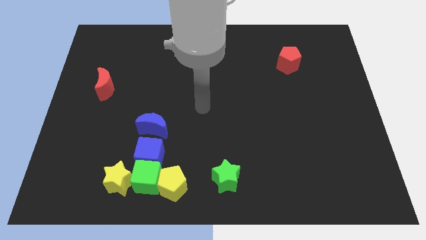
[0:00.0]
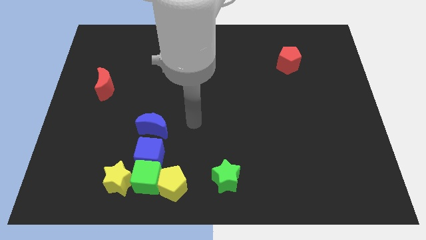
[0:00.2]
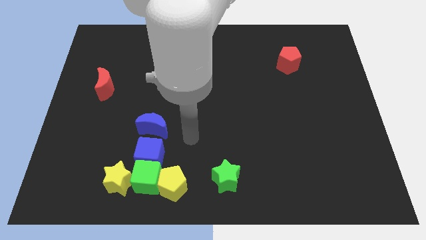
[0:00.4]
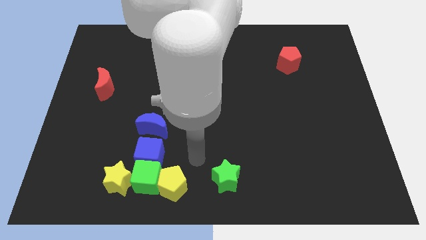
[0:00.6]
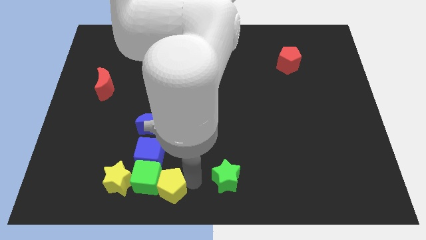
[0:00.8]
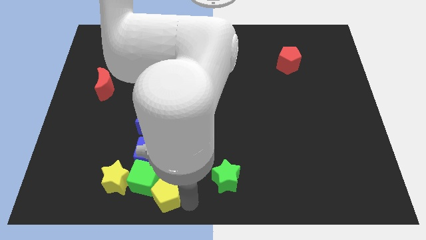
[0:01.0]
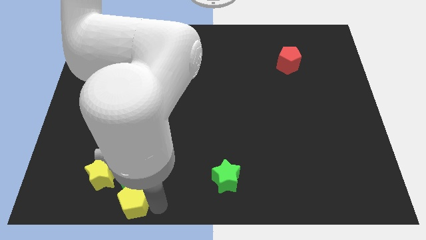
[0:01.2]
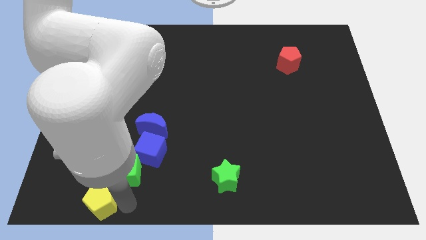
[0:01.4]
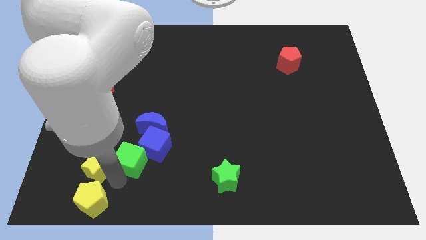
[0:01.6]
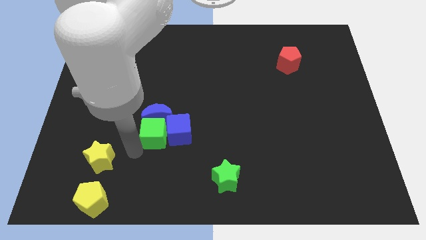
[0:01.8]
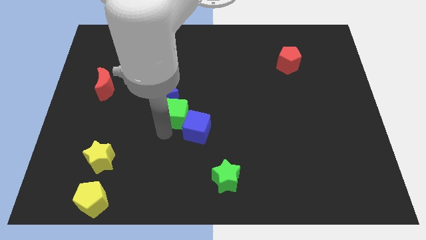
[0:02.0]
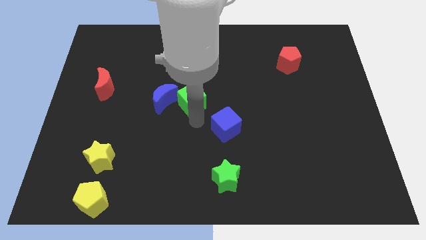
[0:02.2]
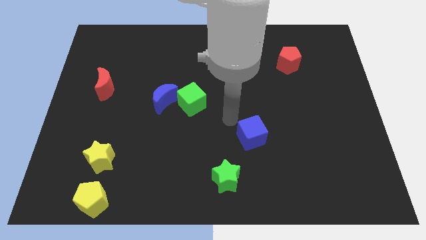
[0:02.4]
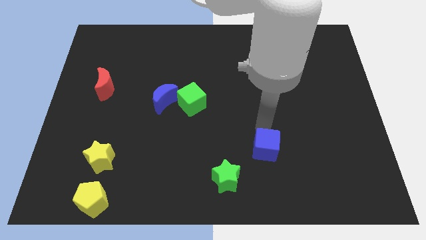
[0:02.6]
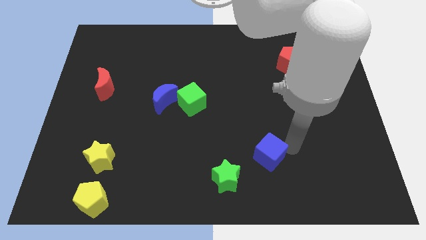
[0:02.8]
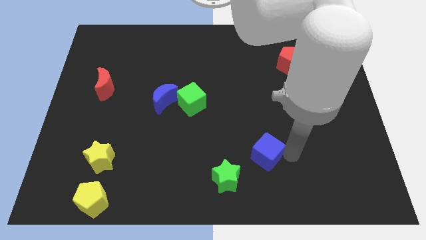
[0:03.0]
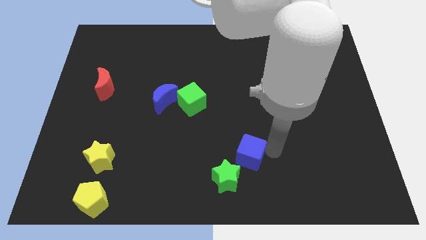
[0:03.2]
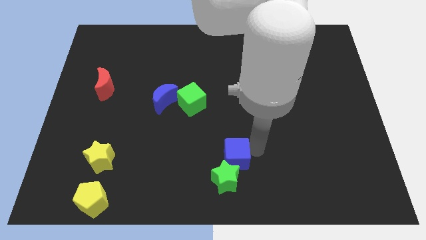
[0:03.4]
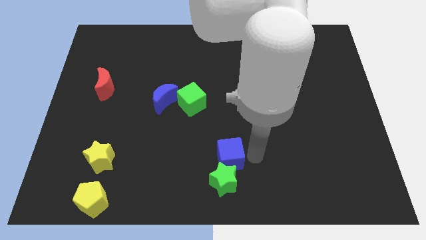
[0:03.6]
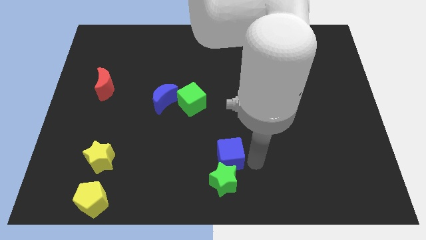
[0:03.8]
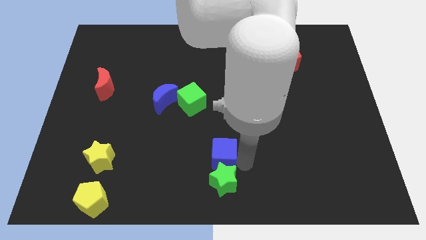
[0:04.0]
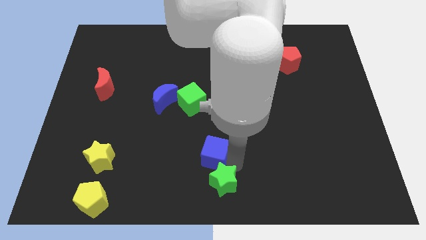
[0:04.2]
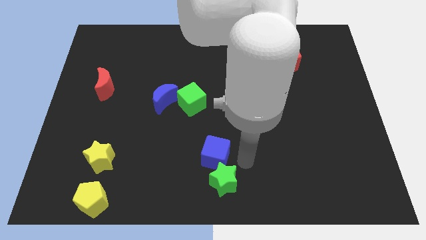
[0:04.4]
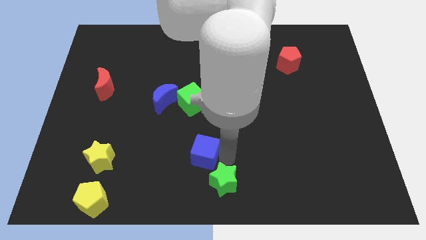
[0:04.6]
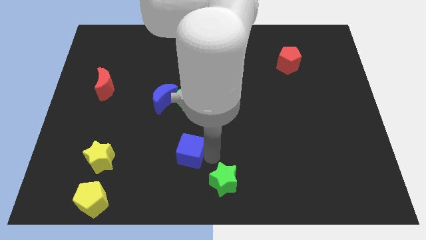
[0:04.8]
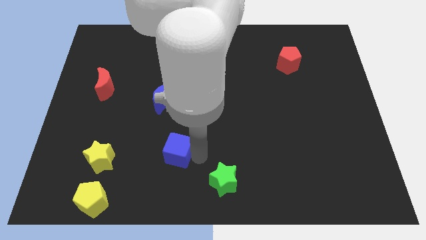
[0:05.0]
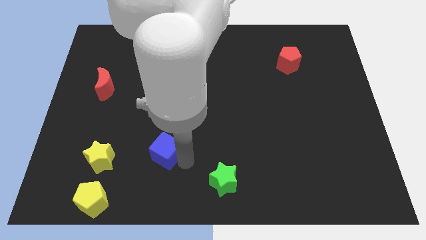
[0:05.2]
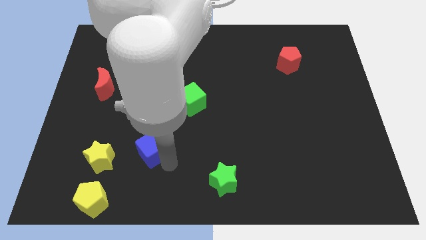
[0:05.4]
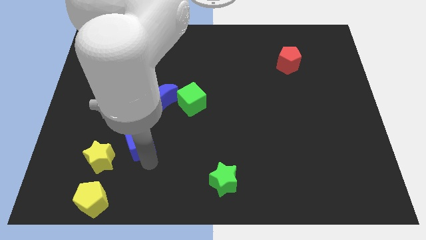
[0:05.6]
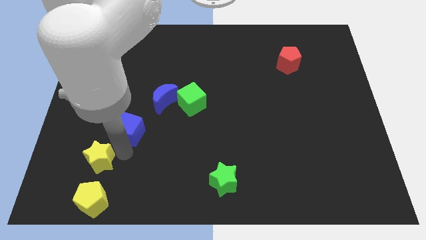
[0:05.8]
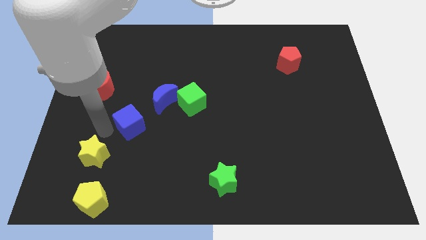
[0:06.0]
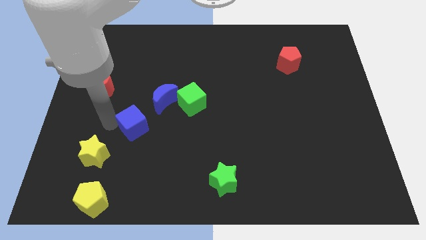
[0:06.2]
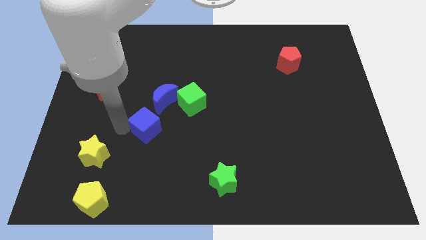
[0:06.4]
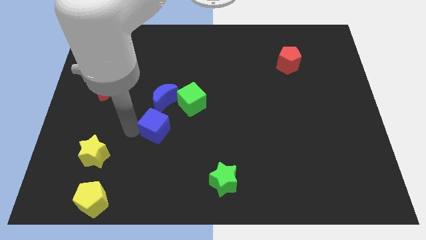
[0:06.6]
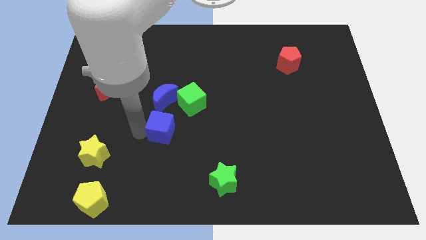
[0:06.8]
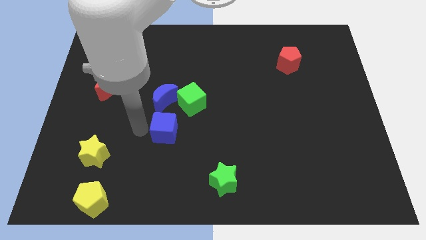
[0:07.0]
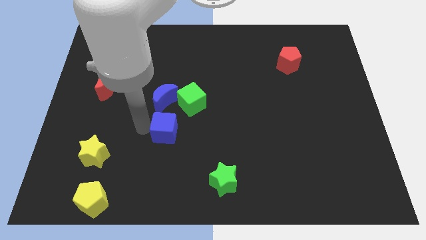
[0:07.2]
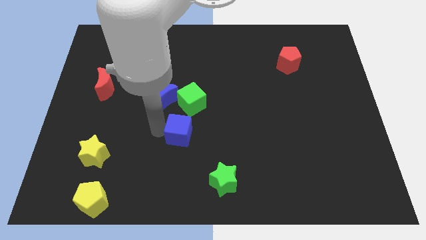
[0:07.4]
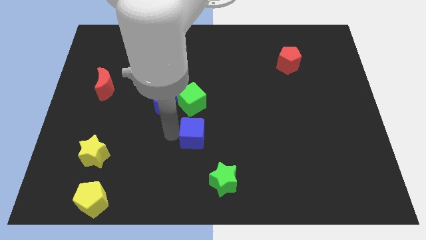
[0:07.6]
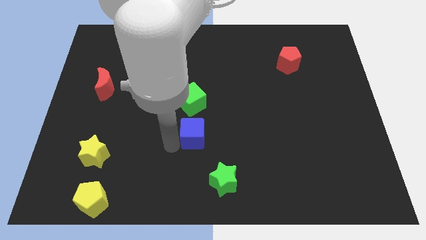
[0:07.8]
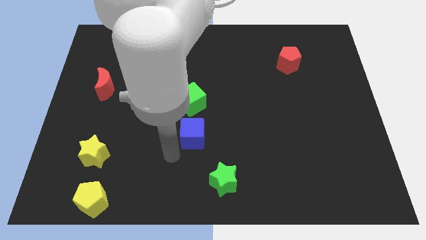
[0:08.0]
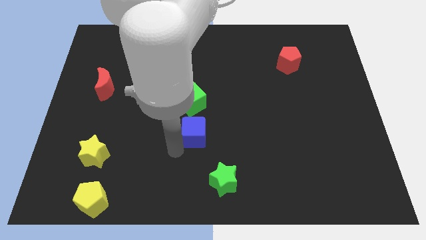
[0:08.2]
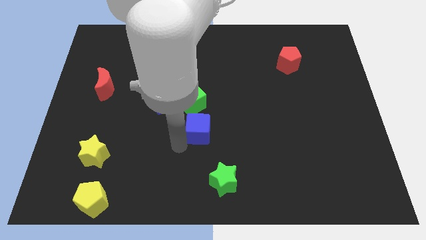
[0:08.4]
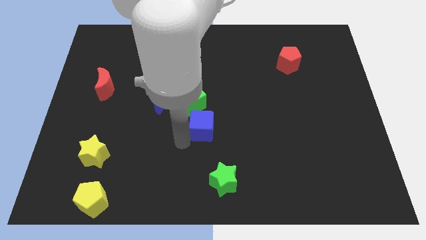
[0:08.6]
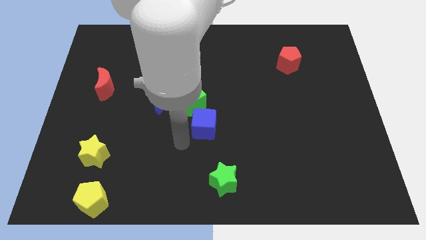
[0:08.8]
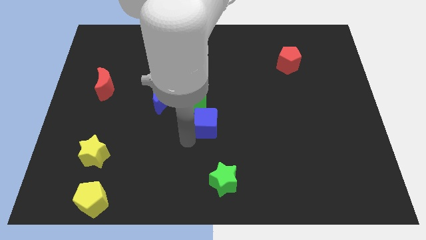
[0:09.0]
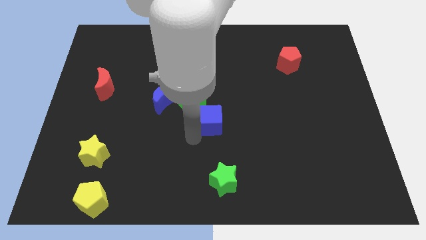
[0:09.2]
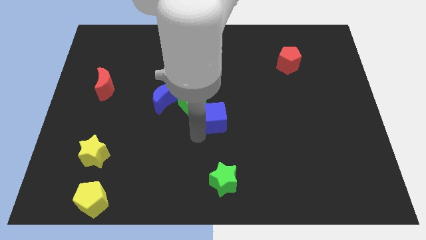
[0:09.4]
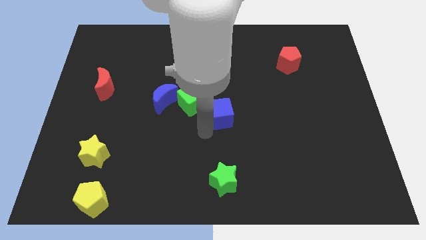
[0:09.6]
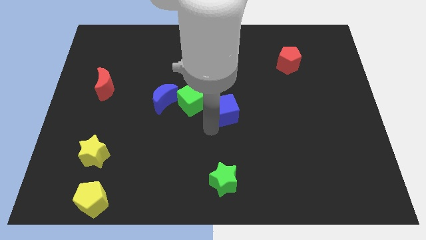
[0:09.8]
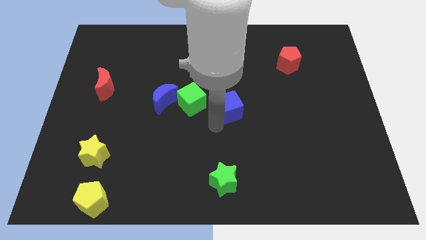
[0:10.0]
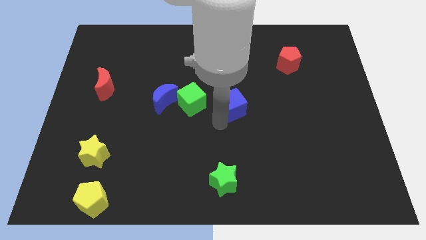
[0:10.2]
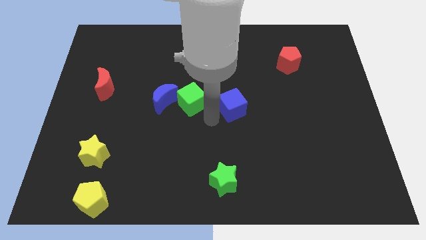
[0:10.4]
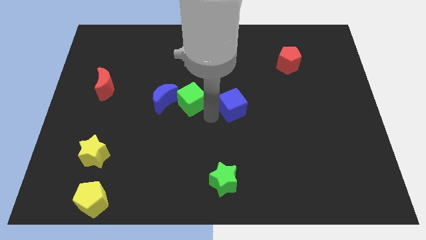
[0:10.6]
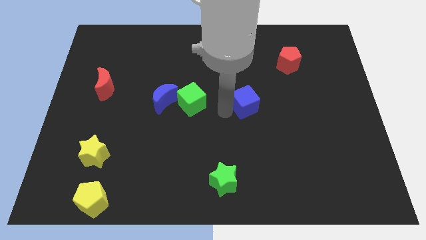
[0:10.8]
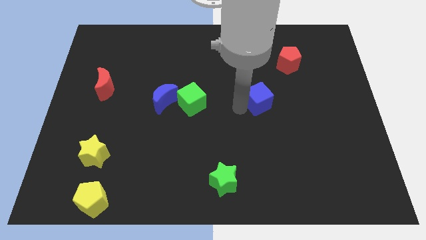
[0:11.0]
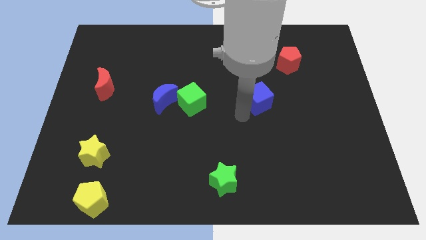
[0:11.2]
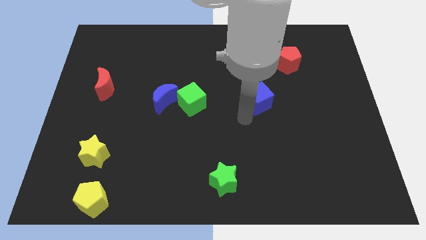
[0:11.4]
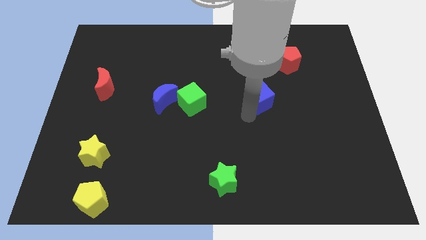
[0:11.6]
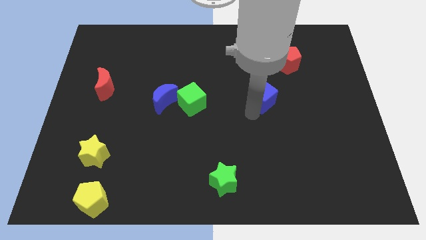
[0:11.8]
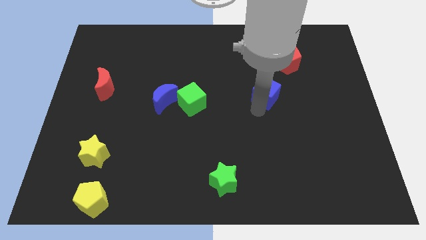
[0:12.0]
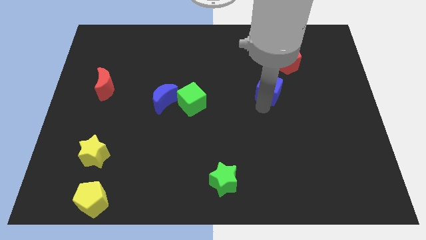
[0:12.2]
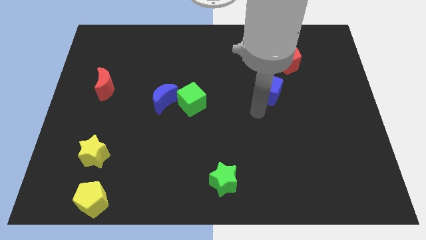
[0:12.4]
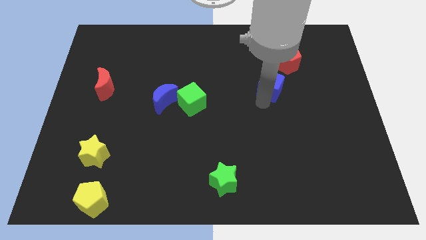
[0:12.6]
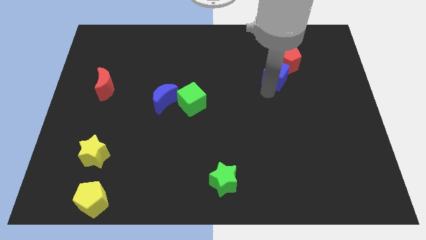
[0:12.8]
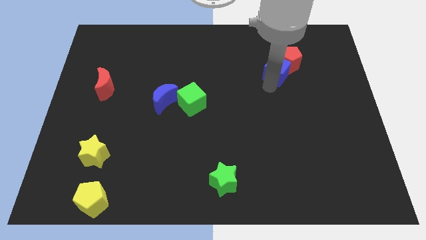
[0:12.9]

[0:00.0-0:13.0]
put the blue cube towards the red pentagon

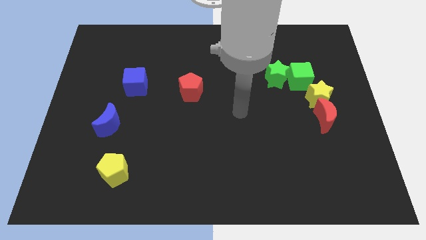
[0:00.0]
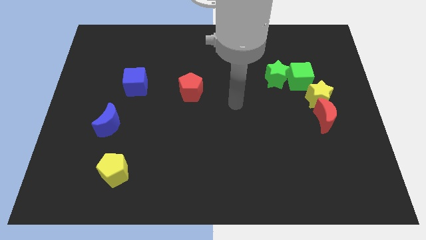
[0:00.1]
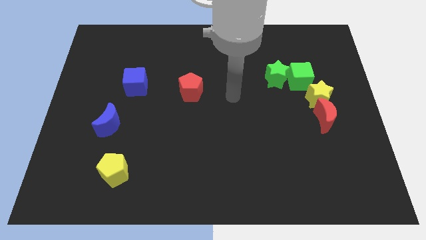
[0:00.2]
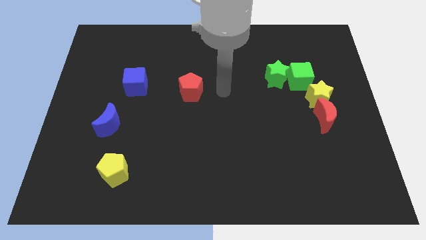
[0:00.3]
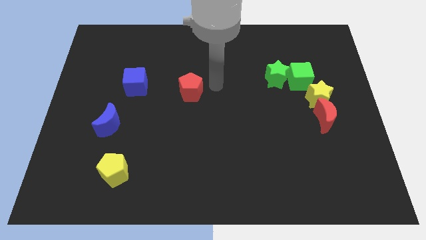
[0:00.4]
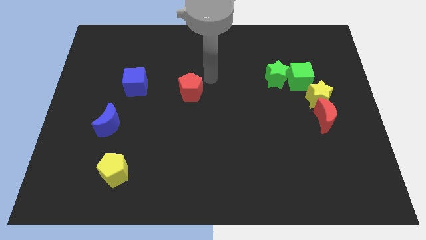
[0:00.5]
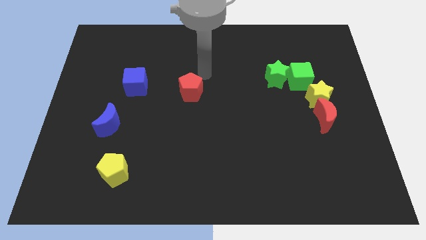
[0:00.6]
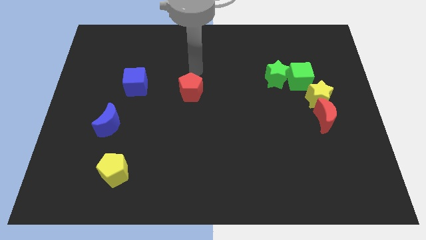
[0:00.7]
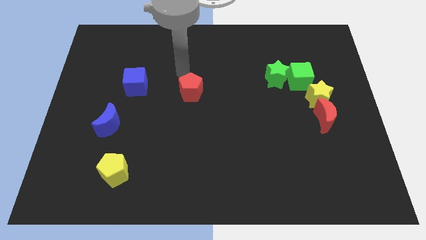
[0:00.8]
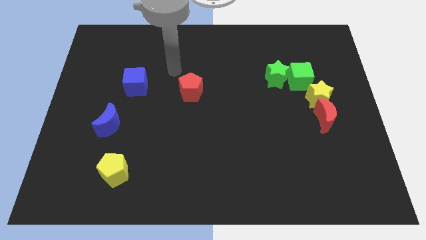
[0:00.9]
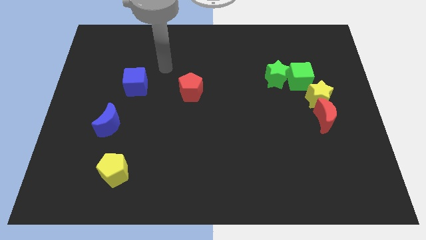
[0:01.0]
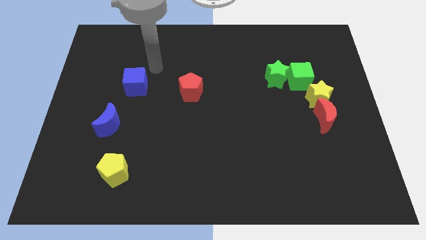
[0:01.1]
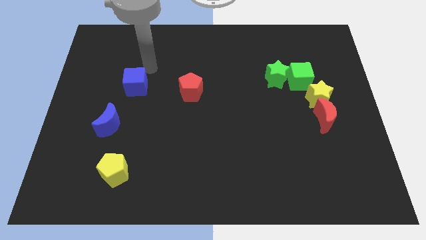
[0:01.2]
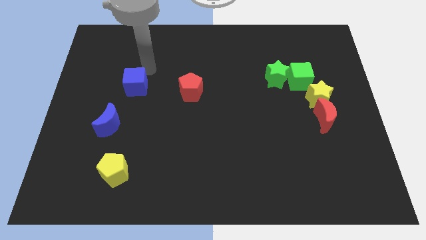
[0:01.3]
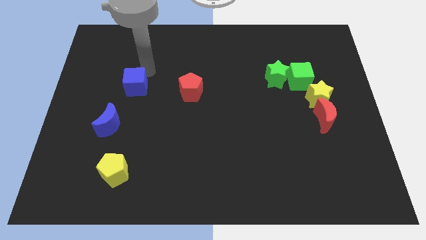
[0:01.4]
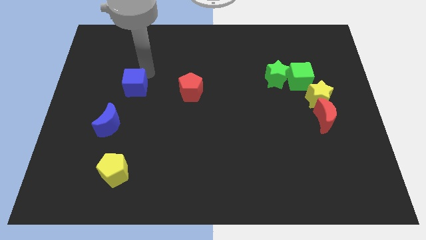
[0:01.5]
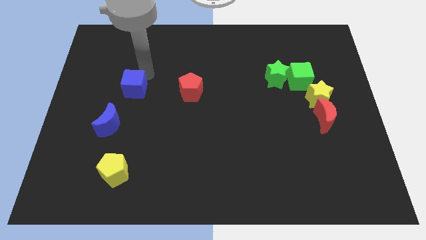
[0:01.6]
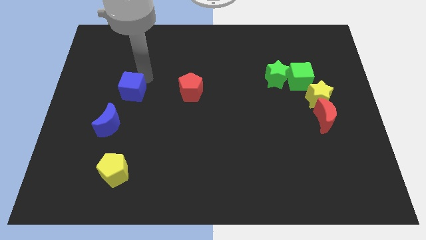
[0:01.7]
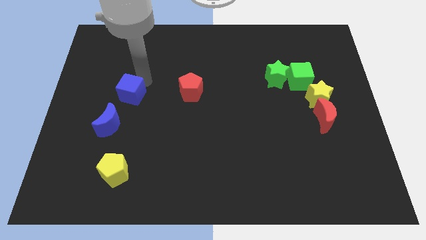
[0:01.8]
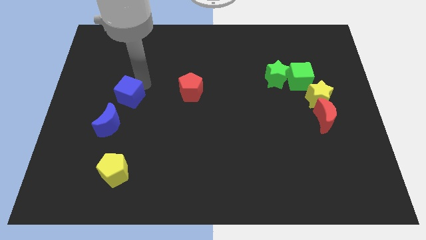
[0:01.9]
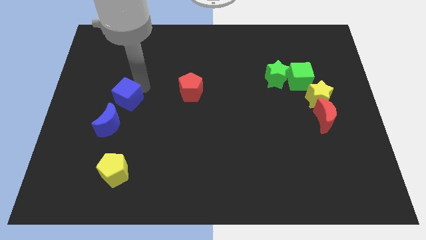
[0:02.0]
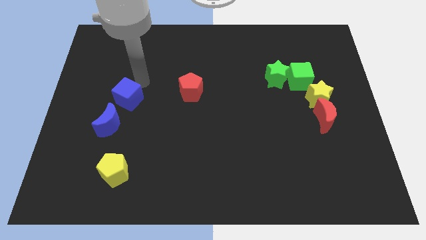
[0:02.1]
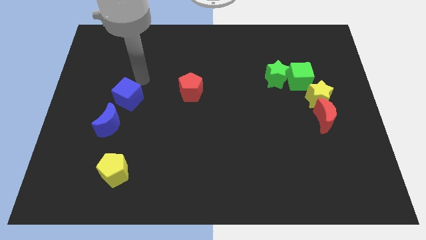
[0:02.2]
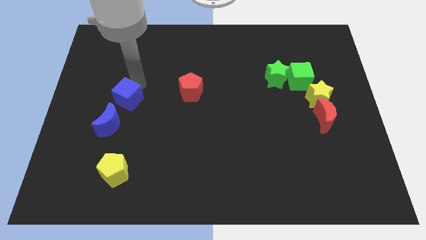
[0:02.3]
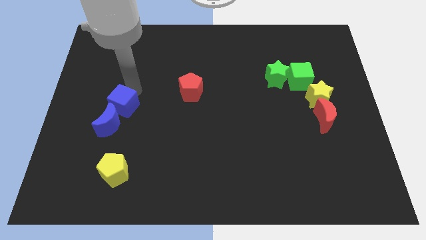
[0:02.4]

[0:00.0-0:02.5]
push the blue cube towards the blue moon
